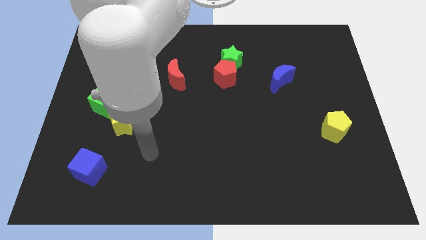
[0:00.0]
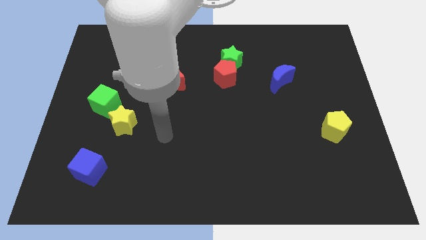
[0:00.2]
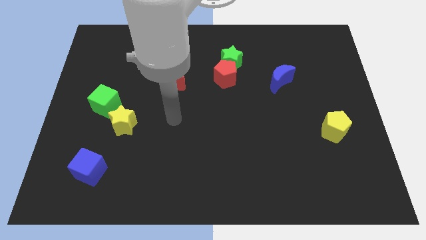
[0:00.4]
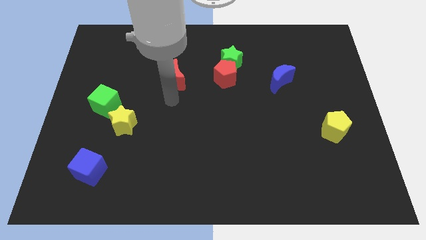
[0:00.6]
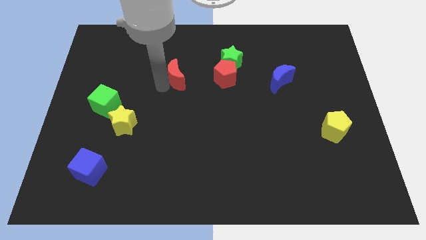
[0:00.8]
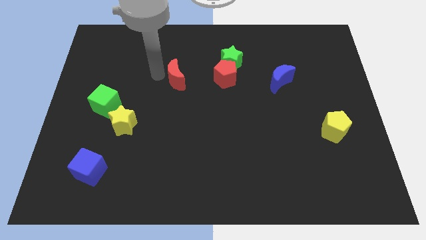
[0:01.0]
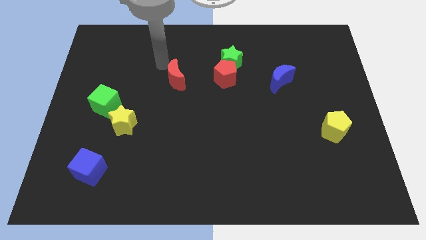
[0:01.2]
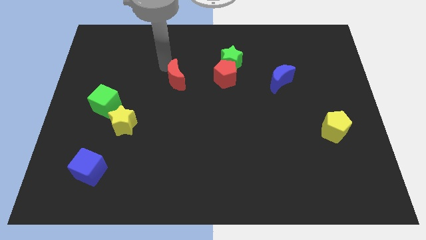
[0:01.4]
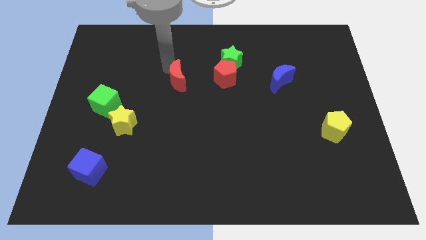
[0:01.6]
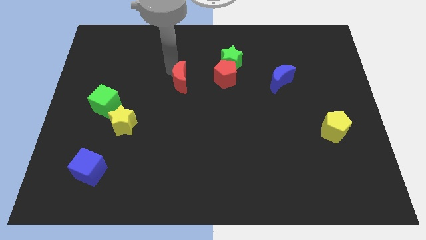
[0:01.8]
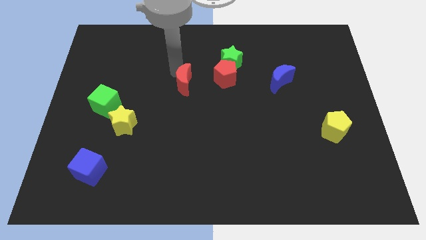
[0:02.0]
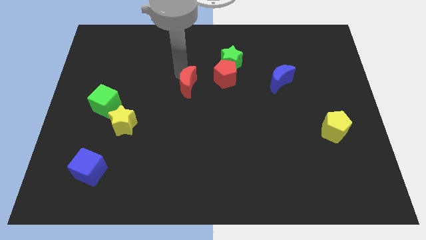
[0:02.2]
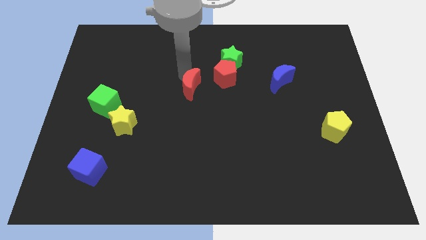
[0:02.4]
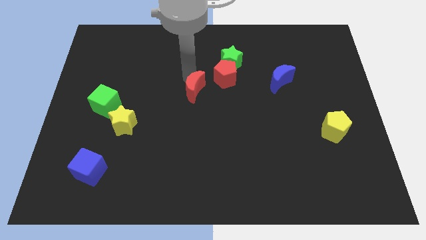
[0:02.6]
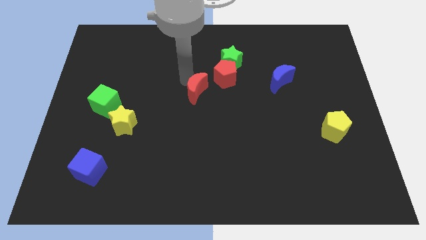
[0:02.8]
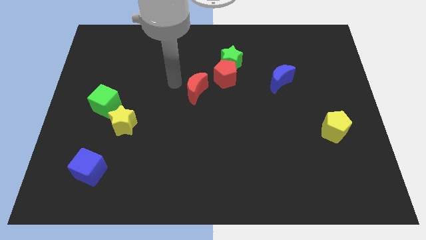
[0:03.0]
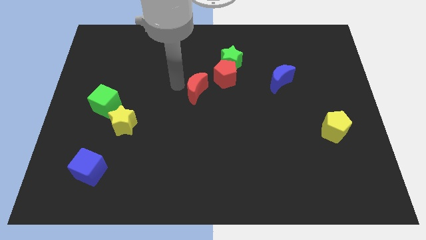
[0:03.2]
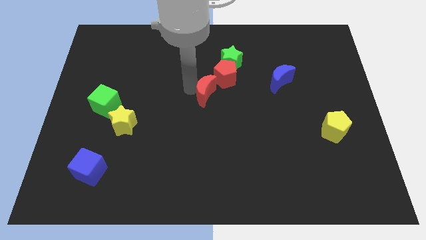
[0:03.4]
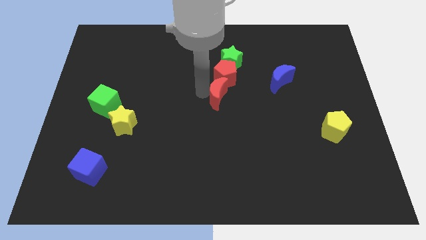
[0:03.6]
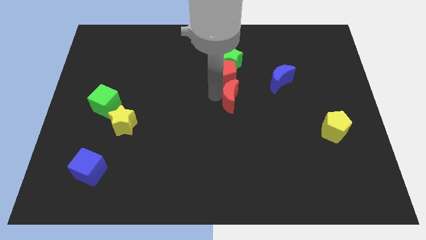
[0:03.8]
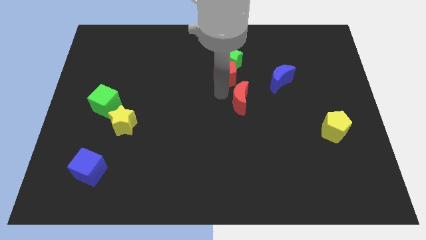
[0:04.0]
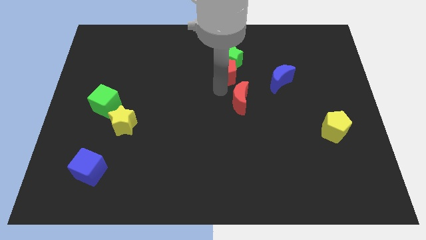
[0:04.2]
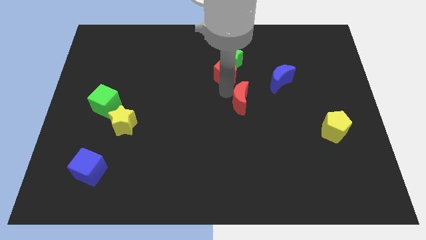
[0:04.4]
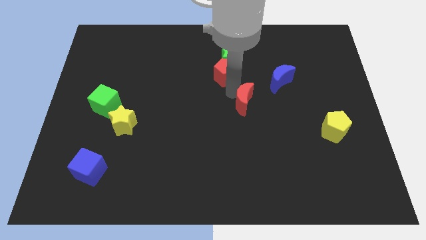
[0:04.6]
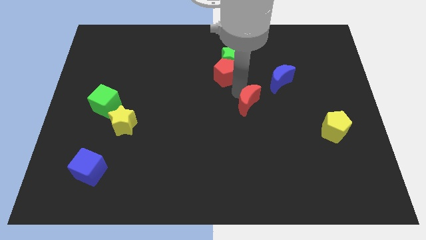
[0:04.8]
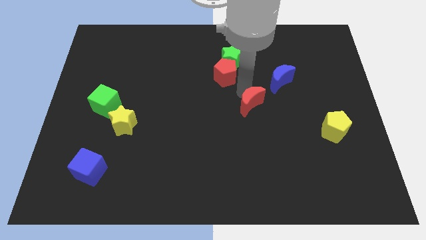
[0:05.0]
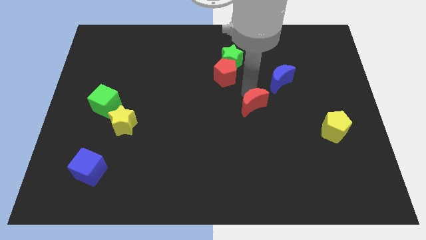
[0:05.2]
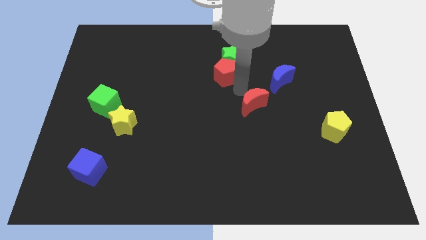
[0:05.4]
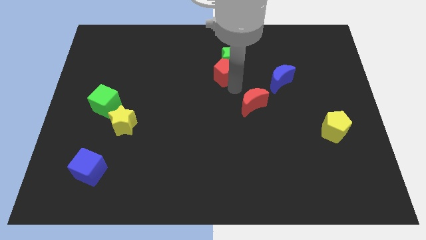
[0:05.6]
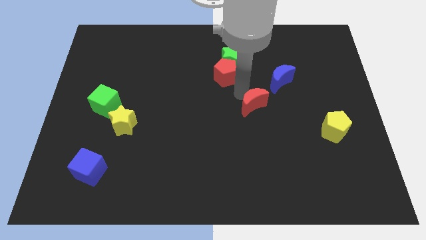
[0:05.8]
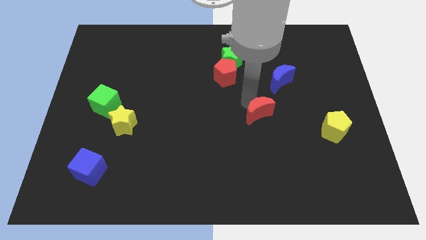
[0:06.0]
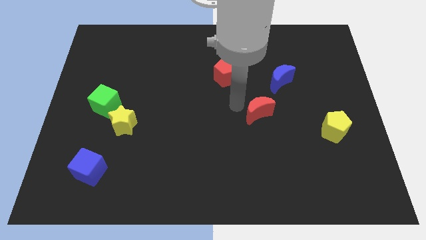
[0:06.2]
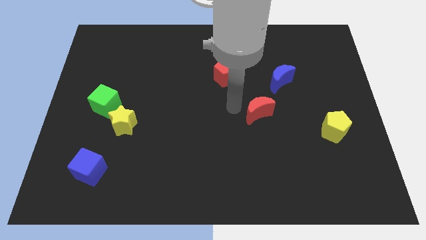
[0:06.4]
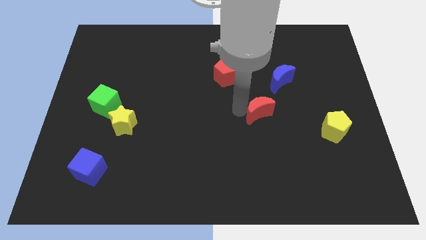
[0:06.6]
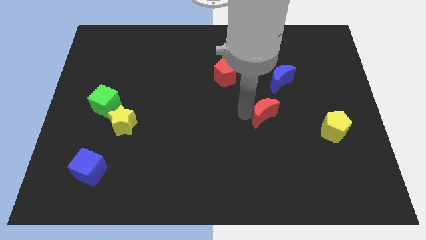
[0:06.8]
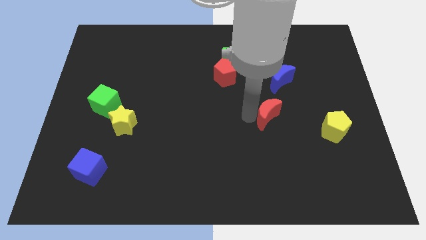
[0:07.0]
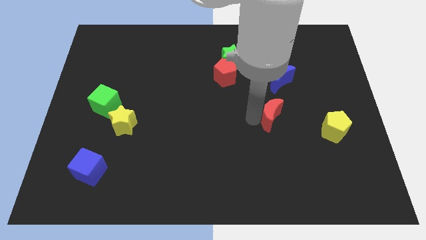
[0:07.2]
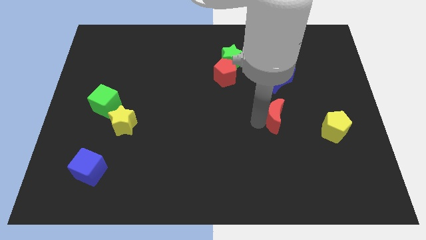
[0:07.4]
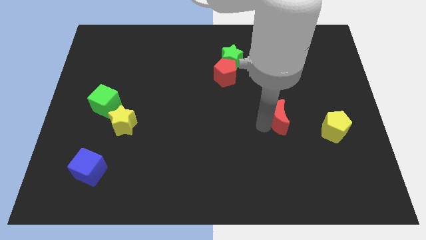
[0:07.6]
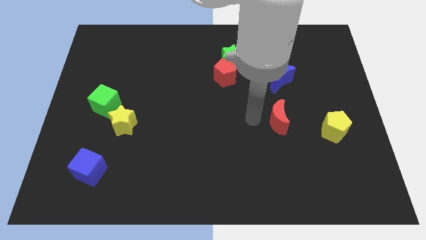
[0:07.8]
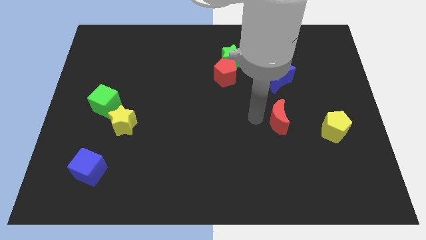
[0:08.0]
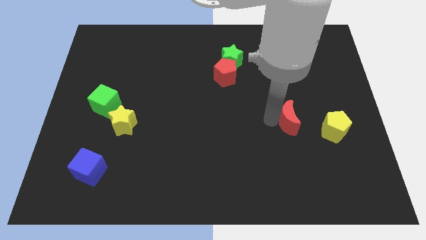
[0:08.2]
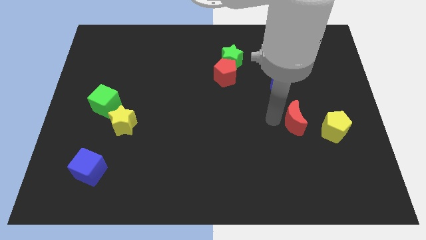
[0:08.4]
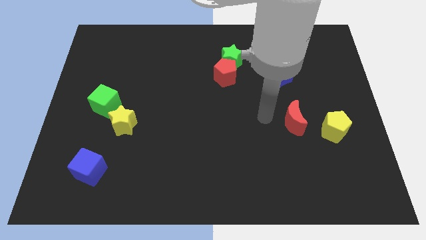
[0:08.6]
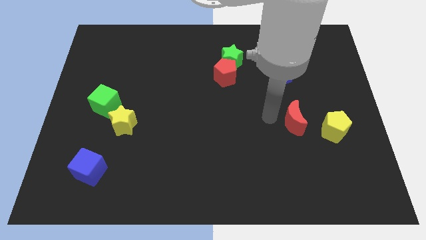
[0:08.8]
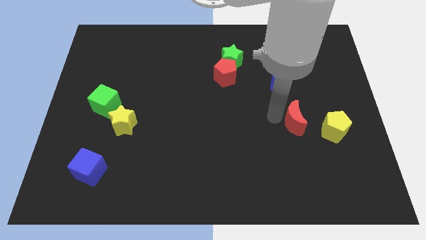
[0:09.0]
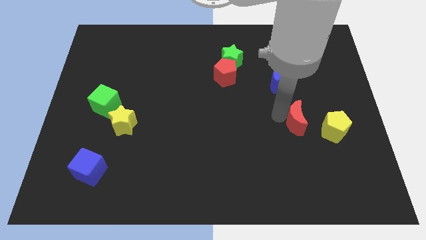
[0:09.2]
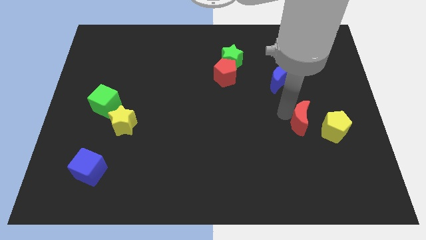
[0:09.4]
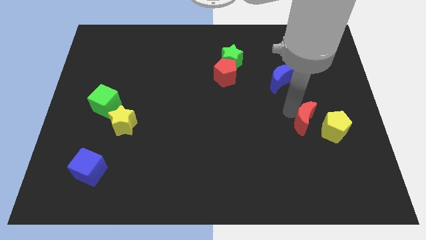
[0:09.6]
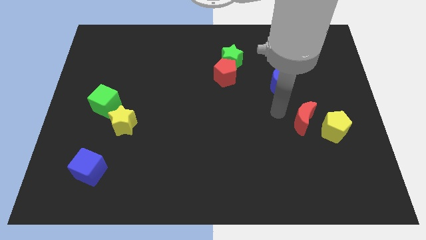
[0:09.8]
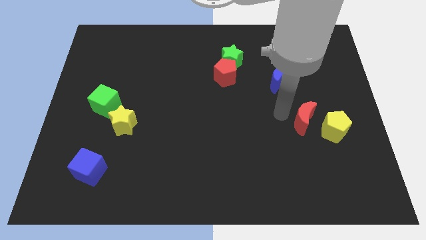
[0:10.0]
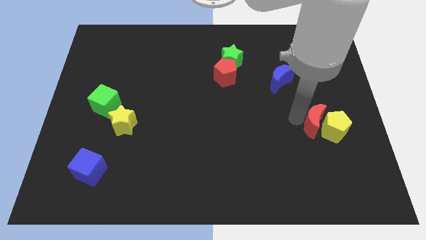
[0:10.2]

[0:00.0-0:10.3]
push the red moon to the yellow pentagon

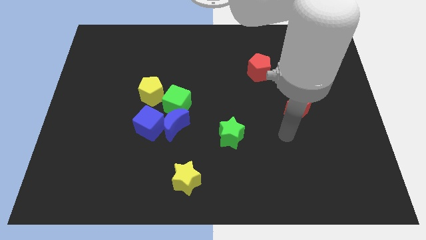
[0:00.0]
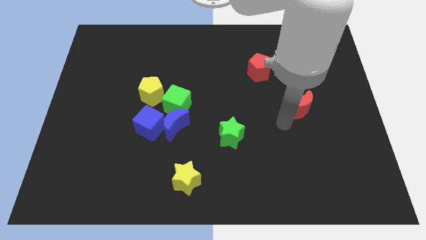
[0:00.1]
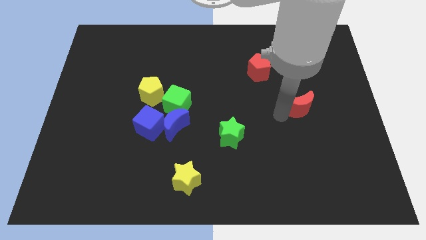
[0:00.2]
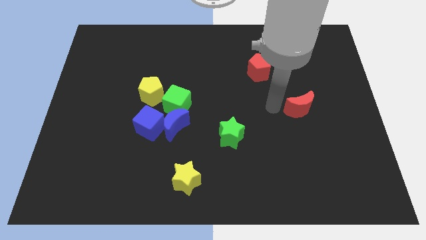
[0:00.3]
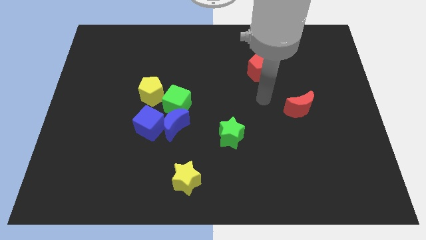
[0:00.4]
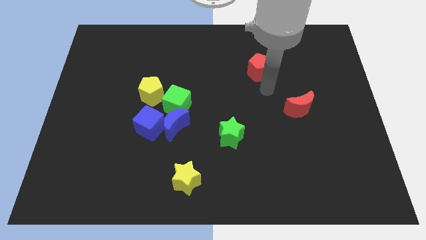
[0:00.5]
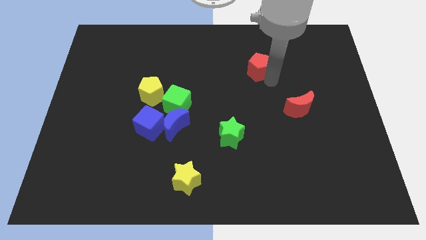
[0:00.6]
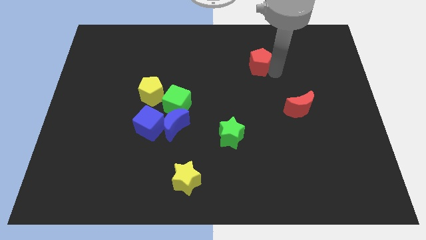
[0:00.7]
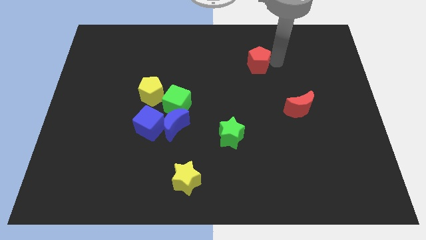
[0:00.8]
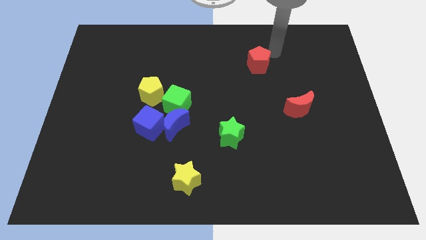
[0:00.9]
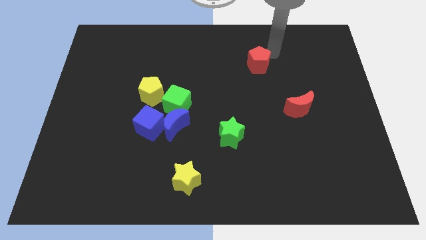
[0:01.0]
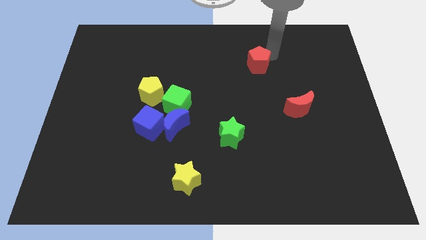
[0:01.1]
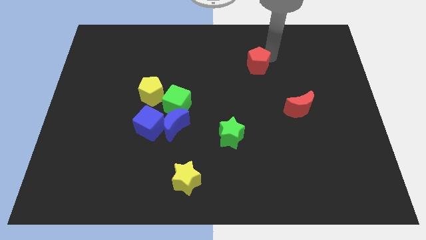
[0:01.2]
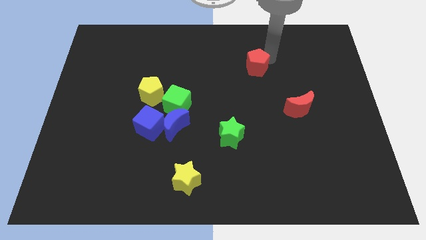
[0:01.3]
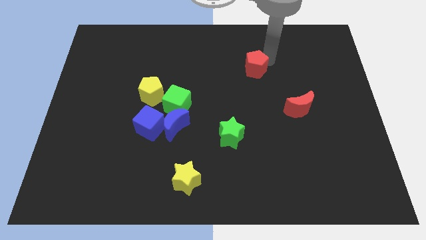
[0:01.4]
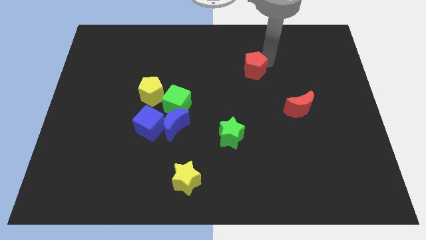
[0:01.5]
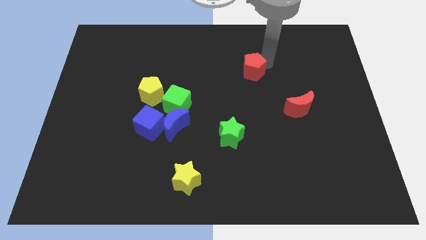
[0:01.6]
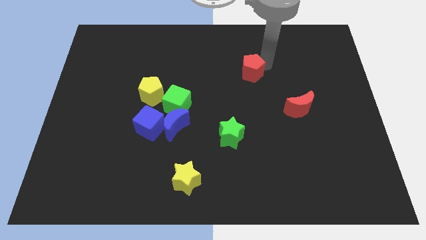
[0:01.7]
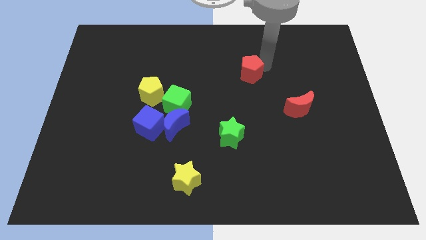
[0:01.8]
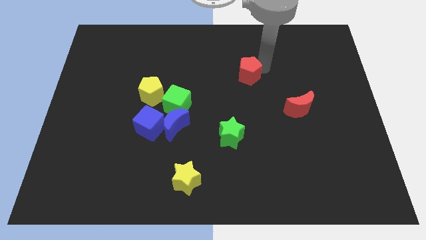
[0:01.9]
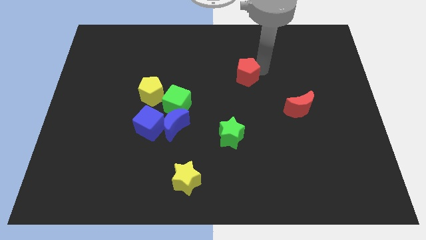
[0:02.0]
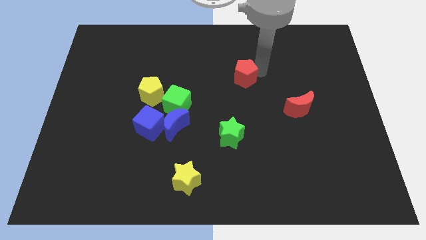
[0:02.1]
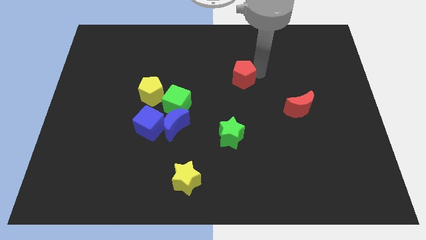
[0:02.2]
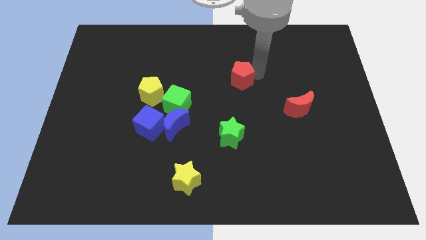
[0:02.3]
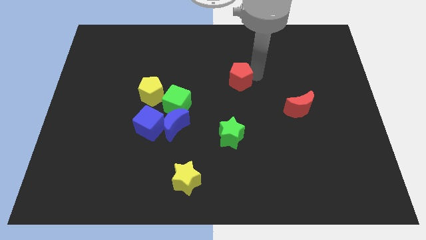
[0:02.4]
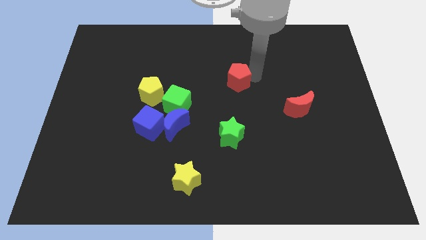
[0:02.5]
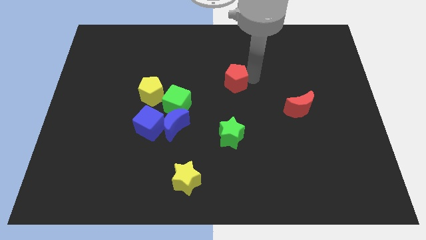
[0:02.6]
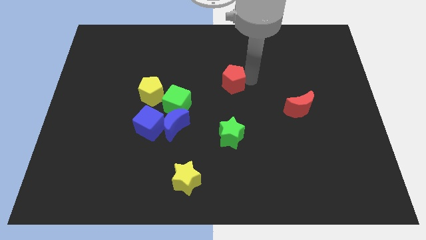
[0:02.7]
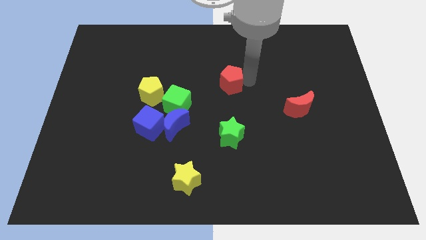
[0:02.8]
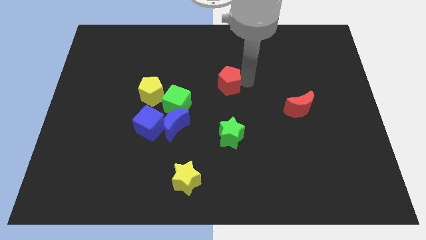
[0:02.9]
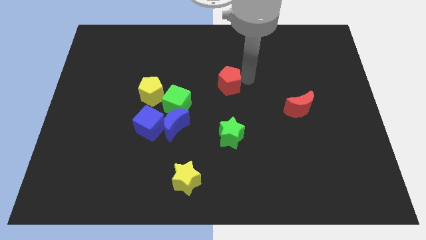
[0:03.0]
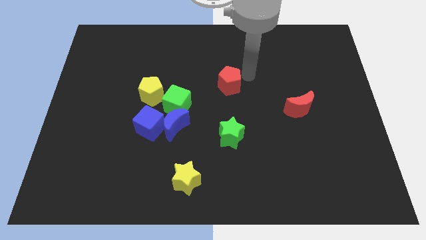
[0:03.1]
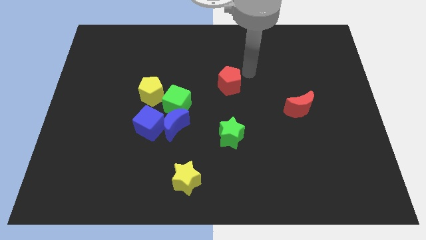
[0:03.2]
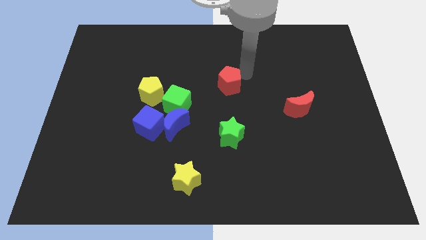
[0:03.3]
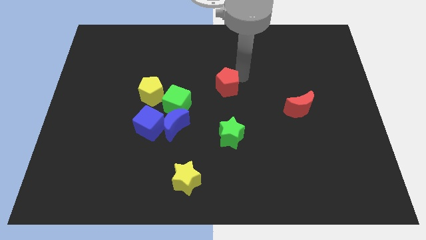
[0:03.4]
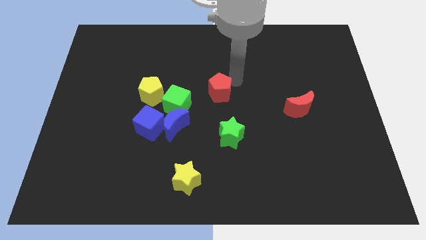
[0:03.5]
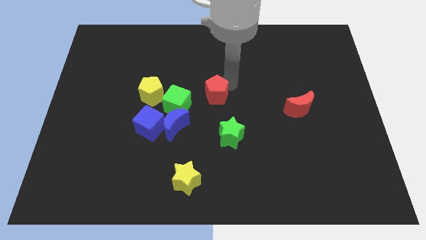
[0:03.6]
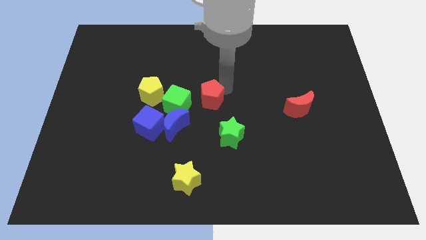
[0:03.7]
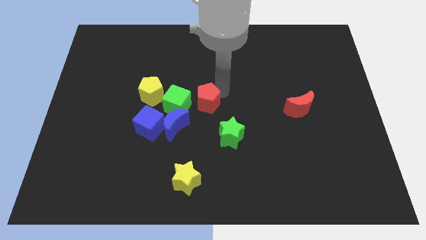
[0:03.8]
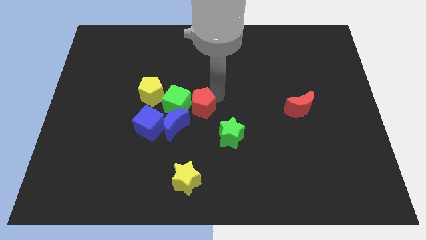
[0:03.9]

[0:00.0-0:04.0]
move the red pentagon close to the green cube
